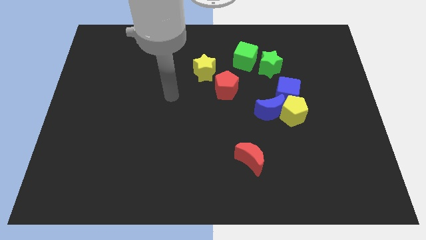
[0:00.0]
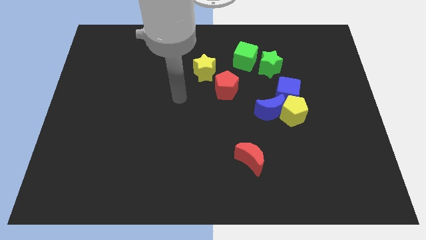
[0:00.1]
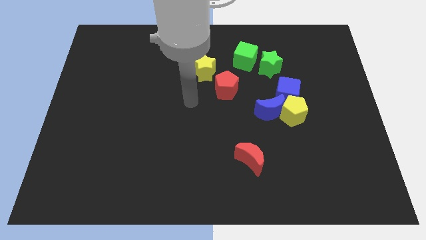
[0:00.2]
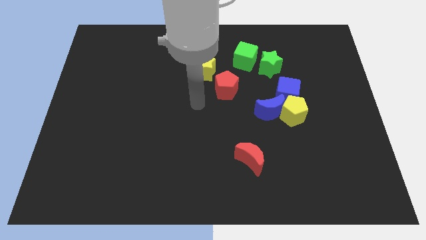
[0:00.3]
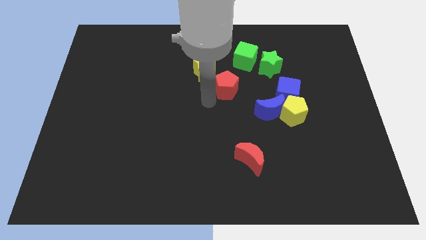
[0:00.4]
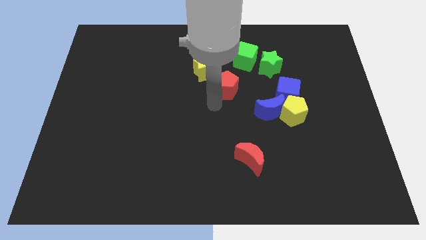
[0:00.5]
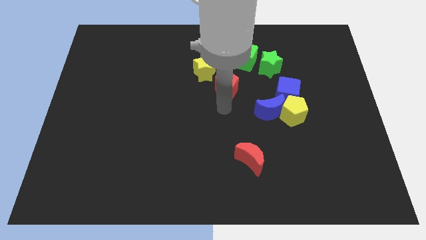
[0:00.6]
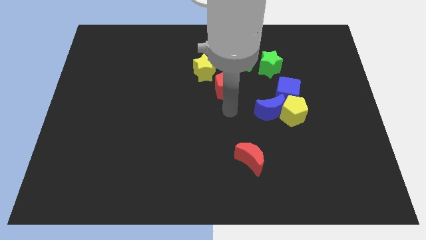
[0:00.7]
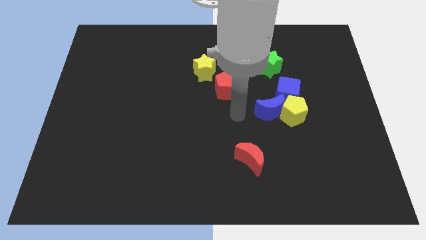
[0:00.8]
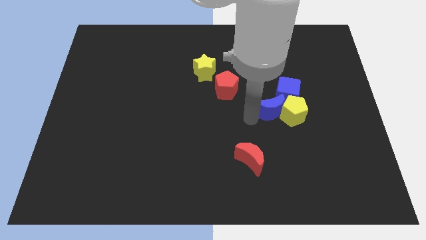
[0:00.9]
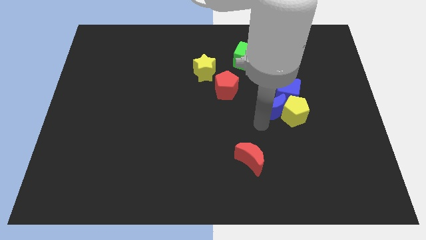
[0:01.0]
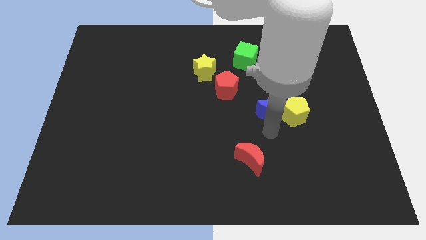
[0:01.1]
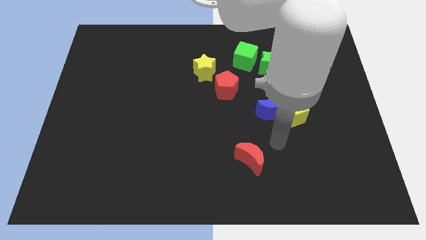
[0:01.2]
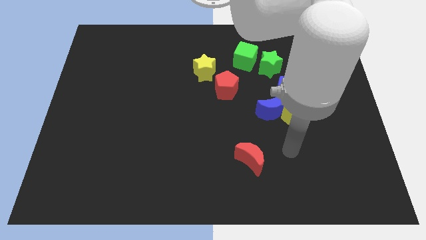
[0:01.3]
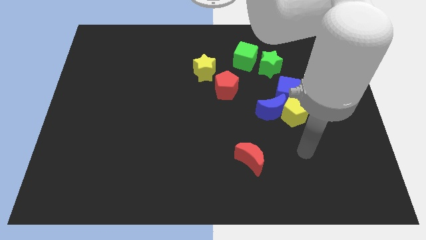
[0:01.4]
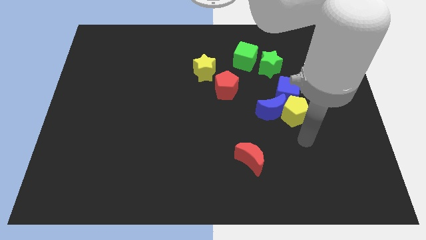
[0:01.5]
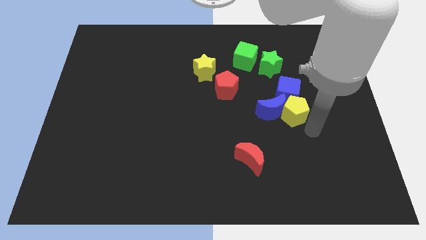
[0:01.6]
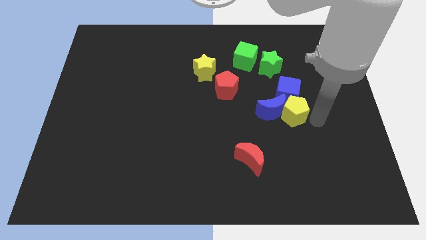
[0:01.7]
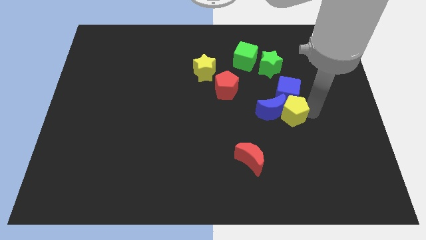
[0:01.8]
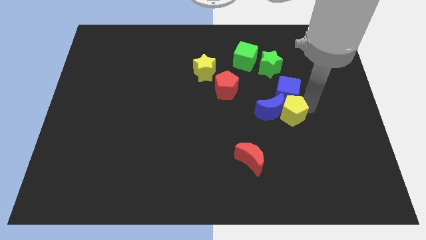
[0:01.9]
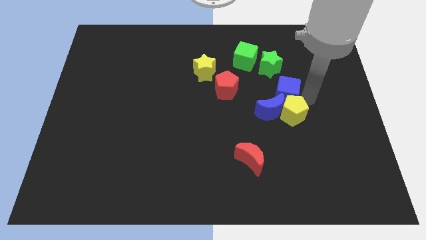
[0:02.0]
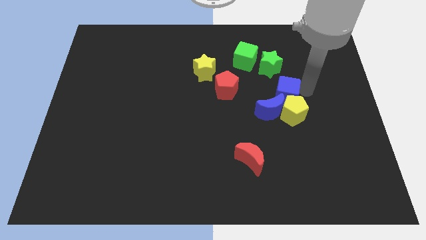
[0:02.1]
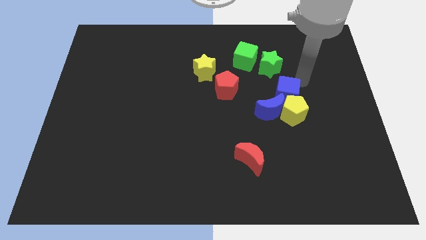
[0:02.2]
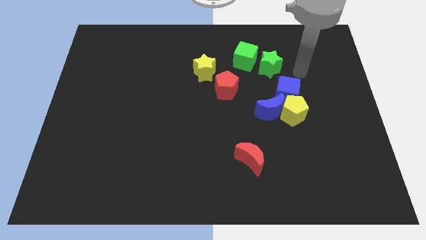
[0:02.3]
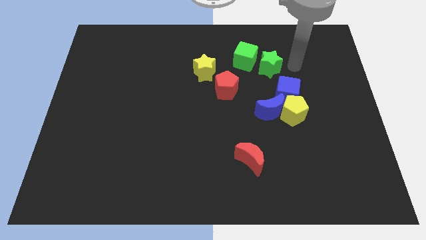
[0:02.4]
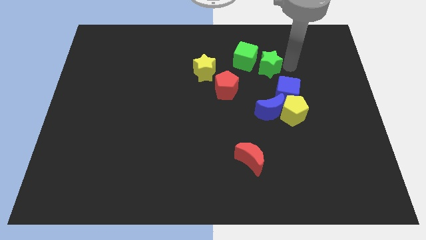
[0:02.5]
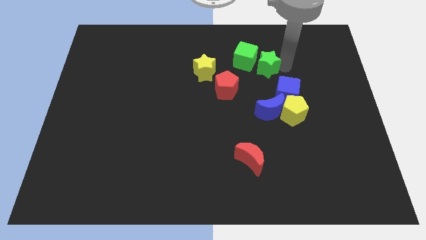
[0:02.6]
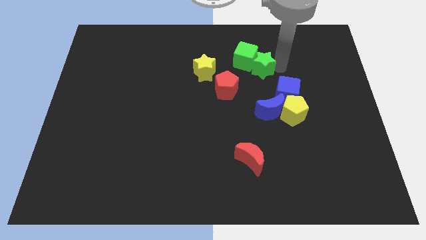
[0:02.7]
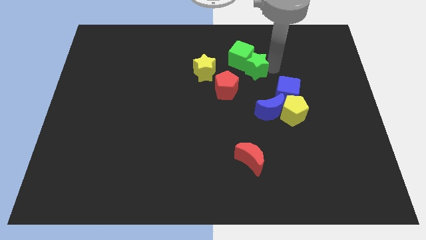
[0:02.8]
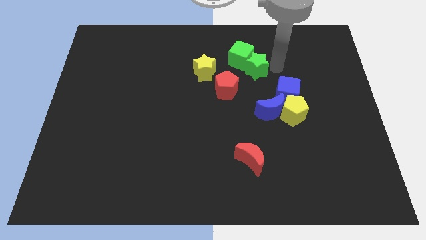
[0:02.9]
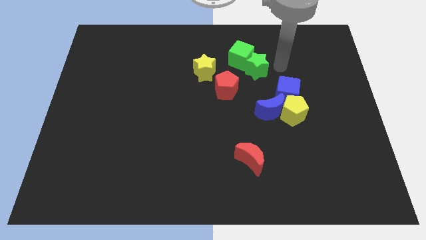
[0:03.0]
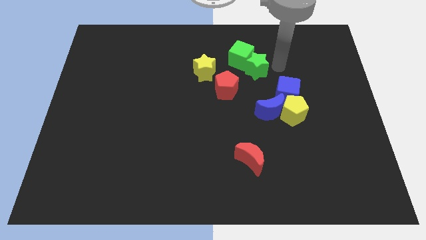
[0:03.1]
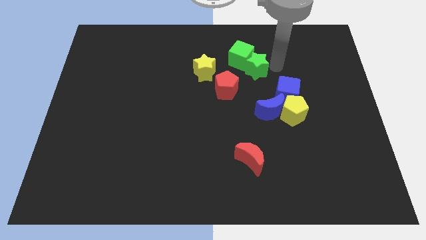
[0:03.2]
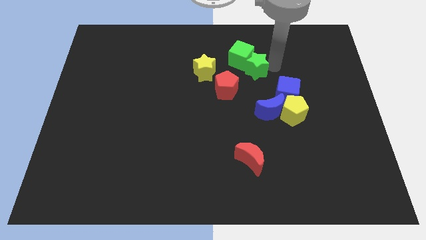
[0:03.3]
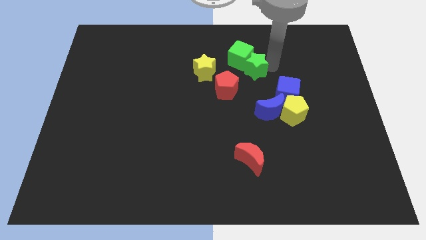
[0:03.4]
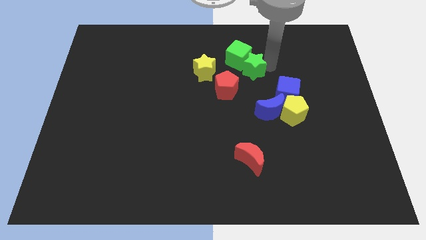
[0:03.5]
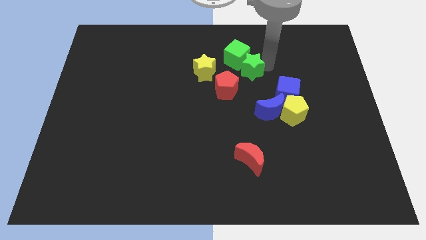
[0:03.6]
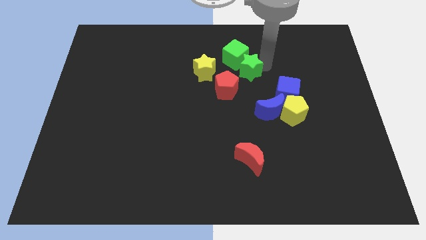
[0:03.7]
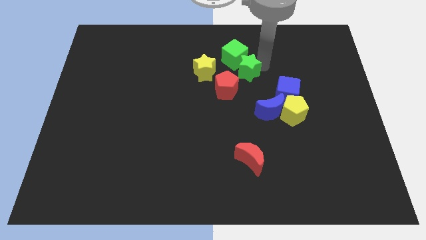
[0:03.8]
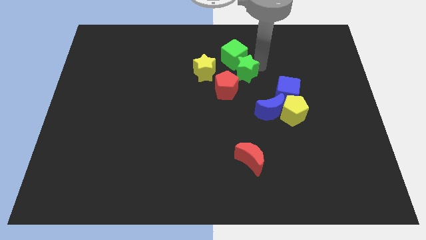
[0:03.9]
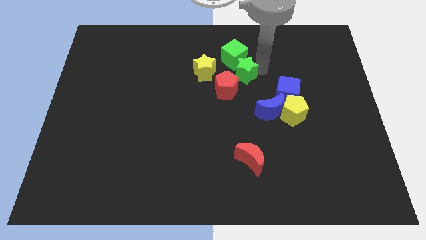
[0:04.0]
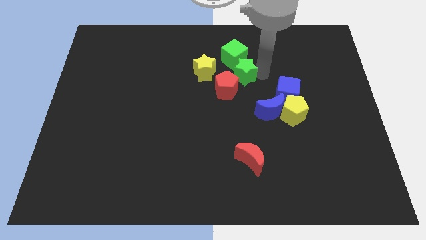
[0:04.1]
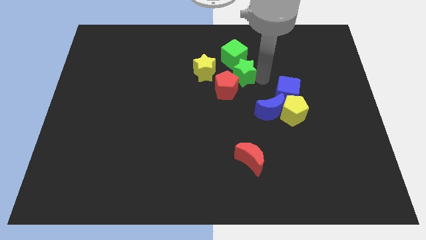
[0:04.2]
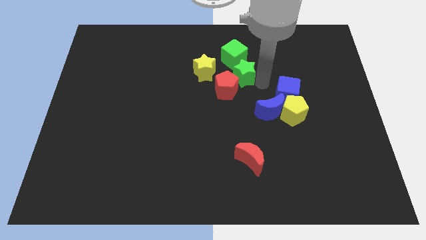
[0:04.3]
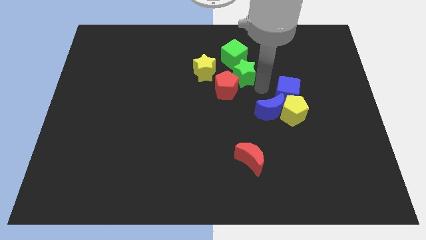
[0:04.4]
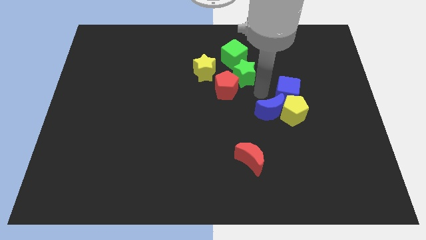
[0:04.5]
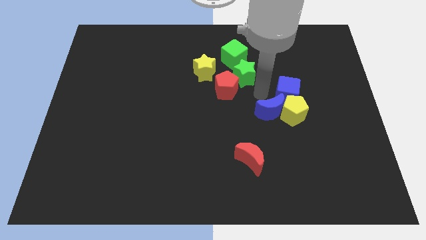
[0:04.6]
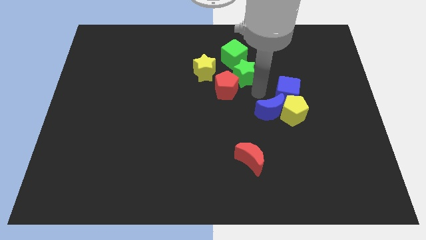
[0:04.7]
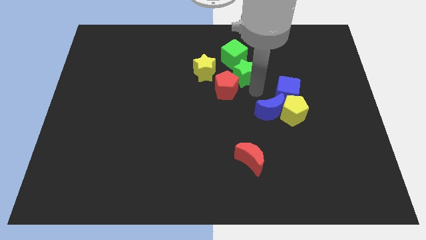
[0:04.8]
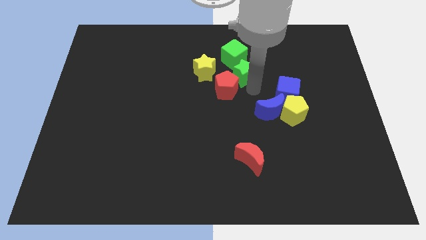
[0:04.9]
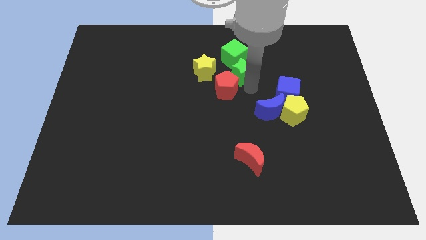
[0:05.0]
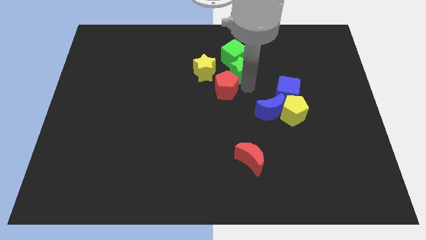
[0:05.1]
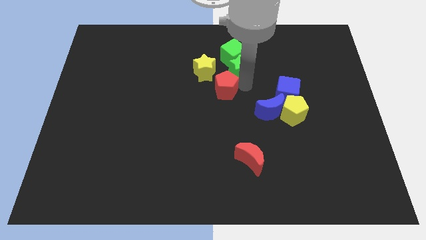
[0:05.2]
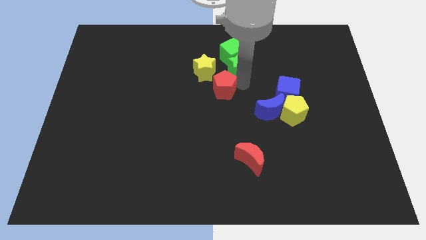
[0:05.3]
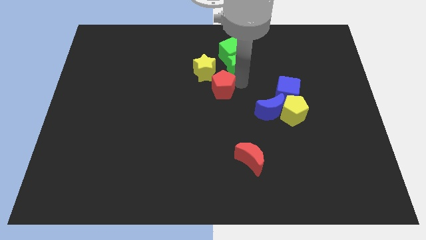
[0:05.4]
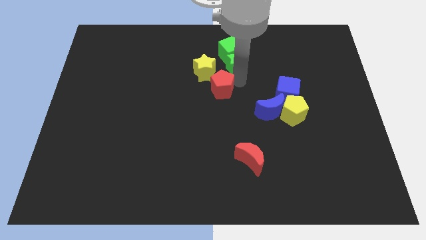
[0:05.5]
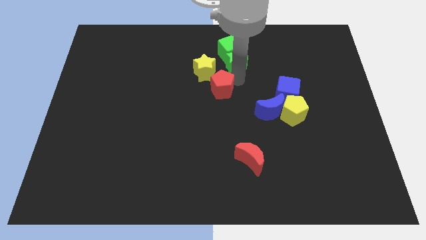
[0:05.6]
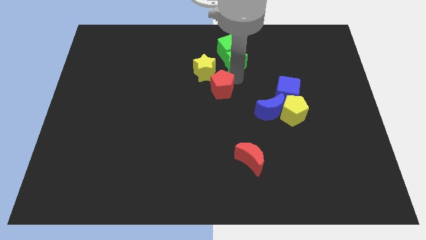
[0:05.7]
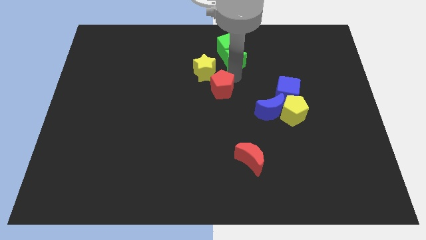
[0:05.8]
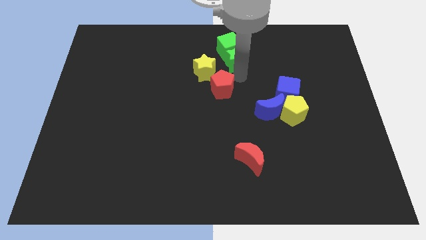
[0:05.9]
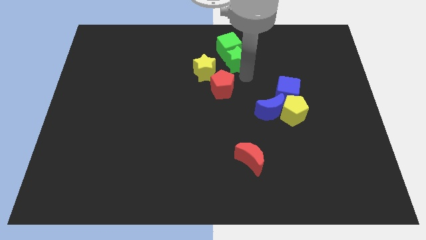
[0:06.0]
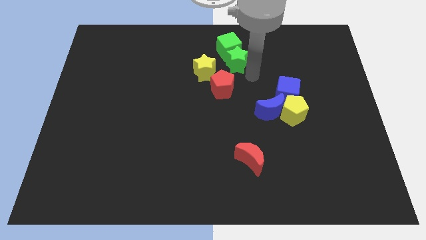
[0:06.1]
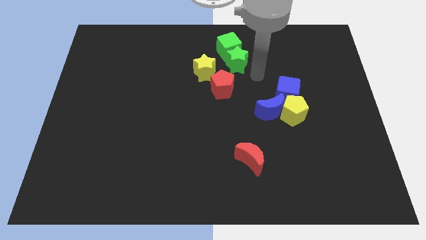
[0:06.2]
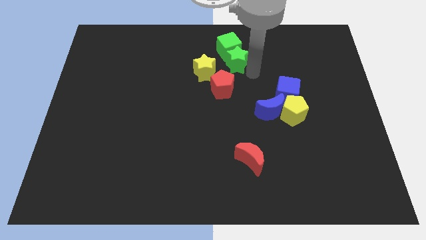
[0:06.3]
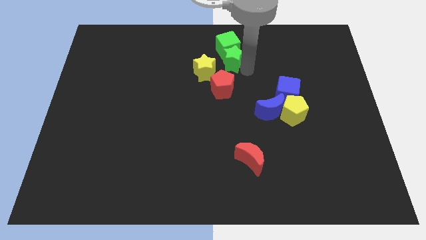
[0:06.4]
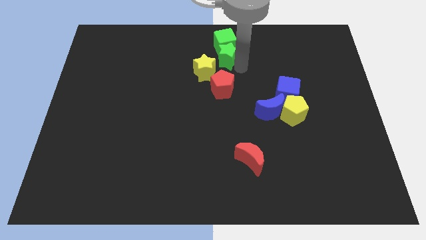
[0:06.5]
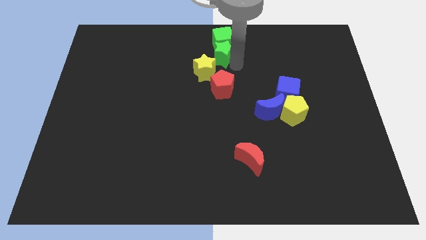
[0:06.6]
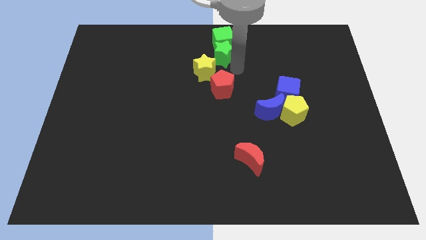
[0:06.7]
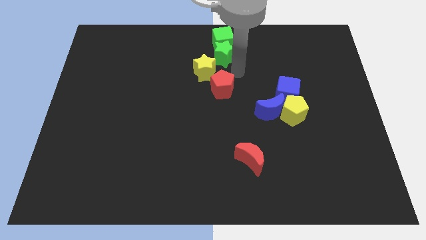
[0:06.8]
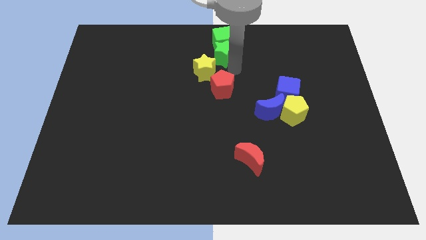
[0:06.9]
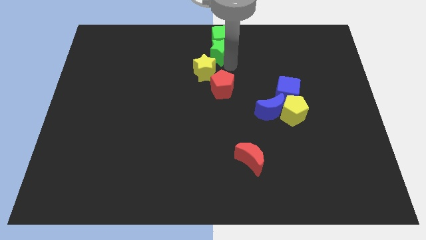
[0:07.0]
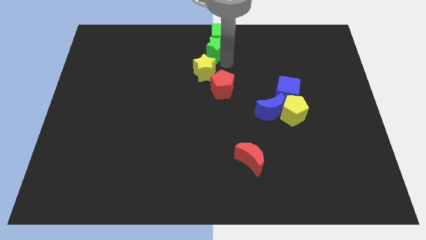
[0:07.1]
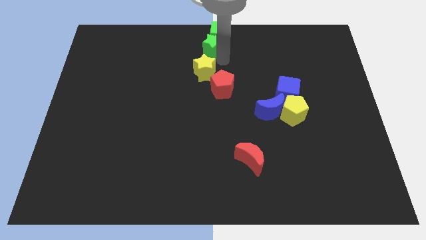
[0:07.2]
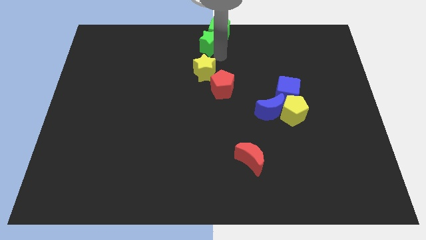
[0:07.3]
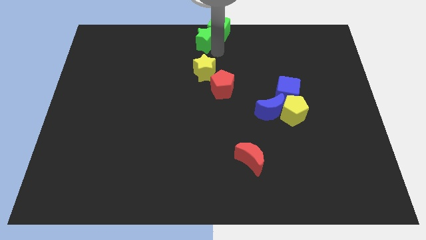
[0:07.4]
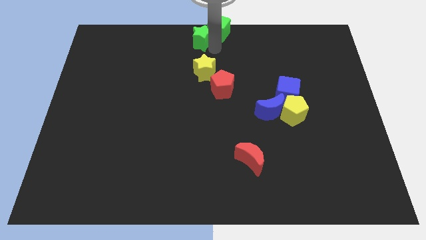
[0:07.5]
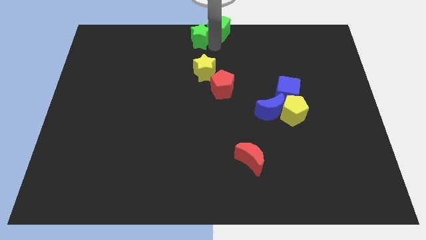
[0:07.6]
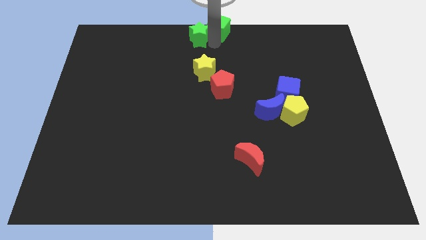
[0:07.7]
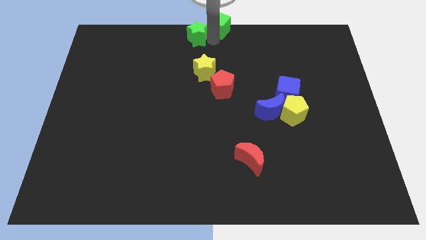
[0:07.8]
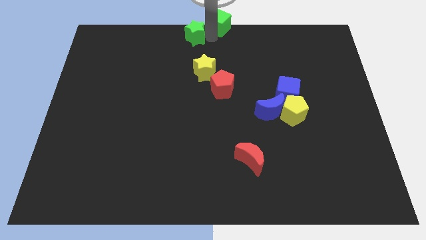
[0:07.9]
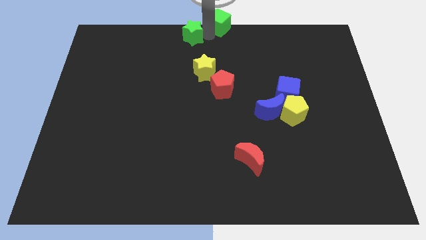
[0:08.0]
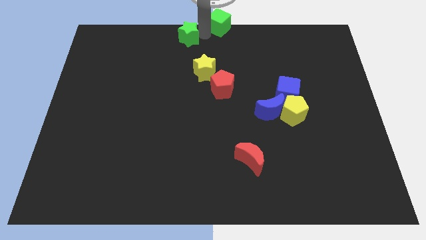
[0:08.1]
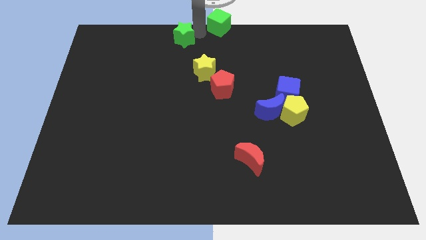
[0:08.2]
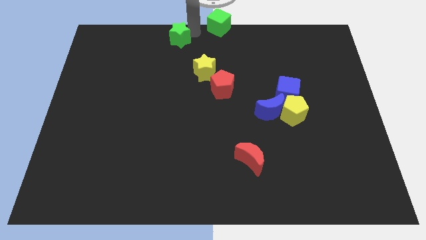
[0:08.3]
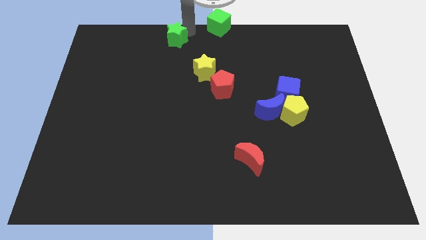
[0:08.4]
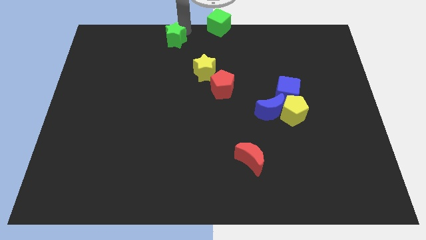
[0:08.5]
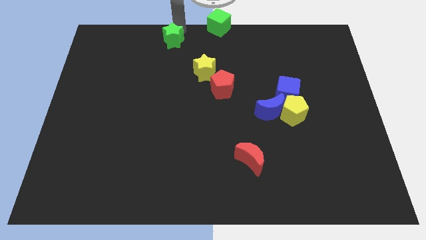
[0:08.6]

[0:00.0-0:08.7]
push the green star to the left
